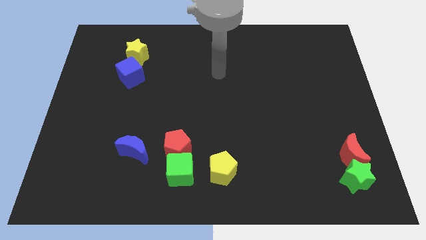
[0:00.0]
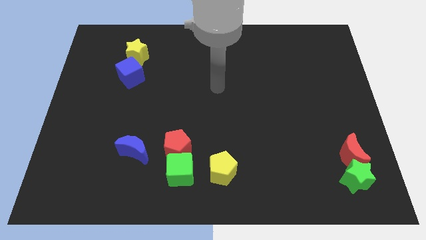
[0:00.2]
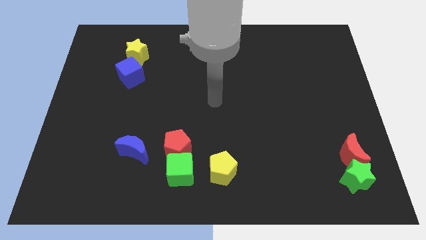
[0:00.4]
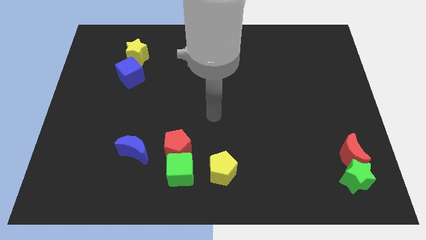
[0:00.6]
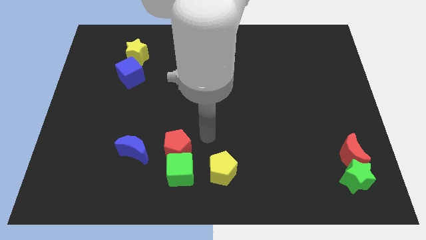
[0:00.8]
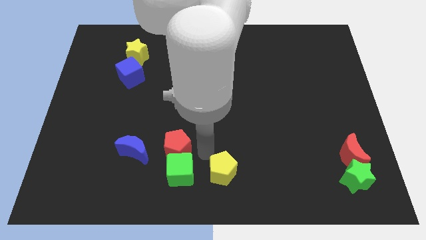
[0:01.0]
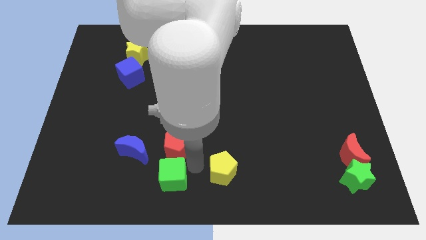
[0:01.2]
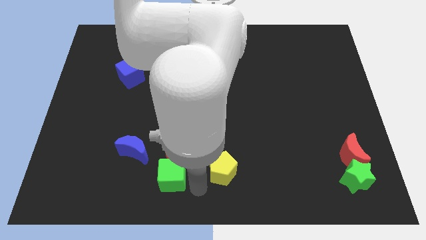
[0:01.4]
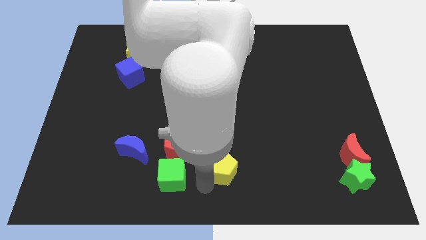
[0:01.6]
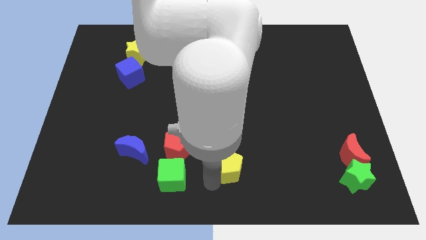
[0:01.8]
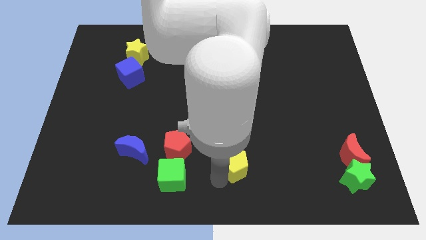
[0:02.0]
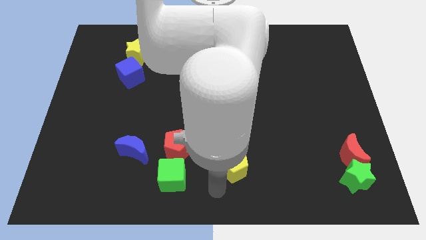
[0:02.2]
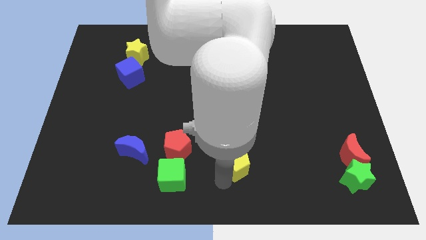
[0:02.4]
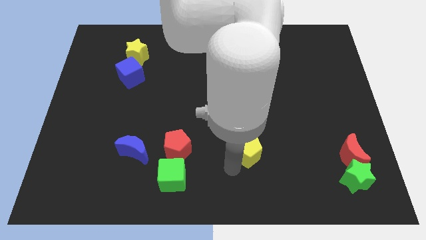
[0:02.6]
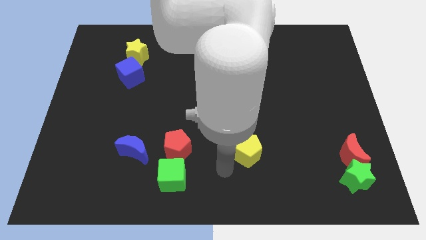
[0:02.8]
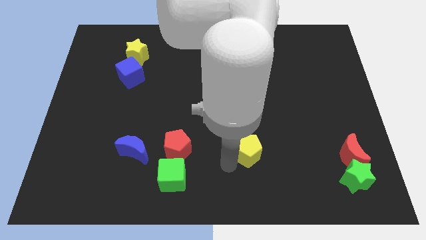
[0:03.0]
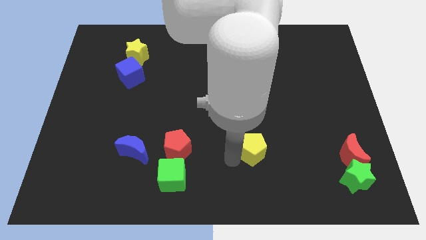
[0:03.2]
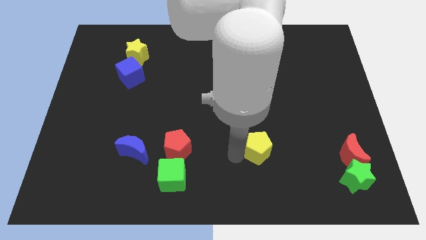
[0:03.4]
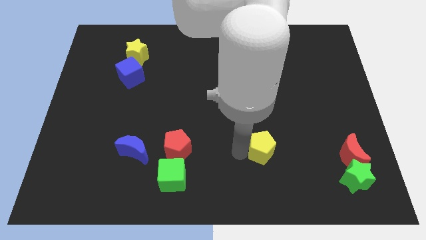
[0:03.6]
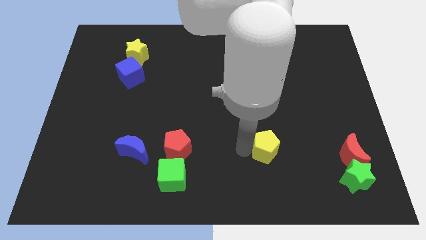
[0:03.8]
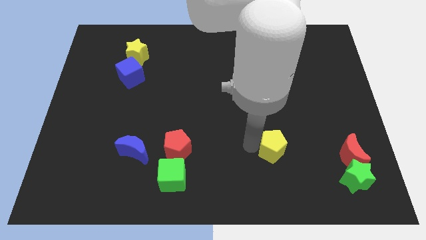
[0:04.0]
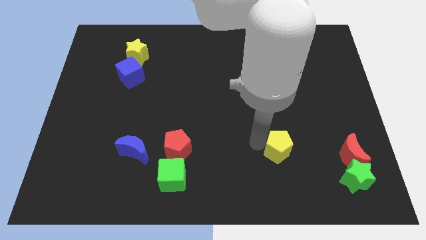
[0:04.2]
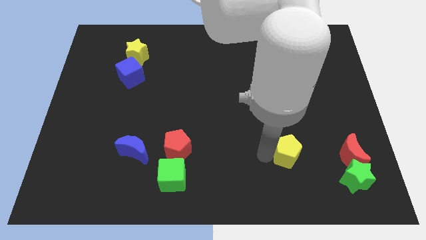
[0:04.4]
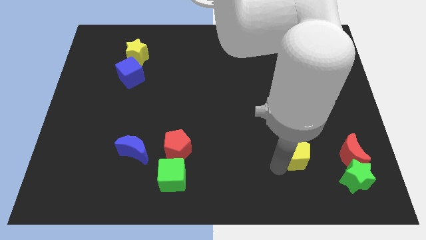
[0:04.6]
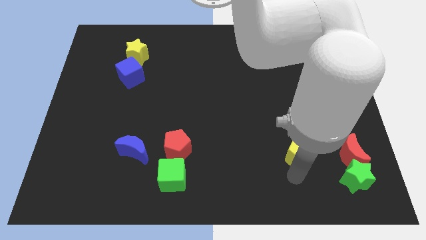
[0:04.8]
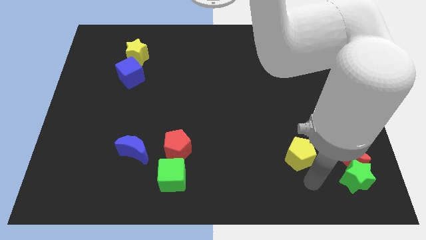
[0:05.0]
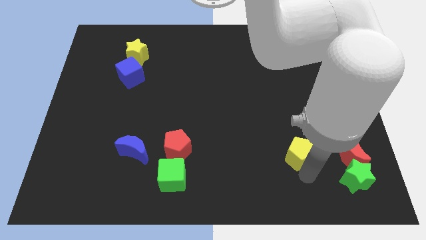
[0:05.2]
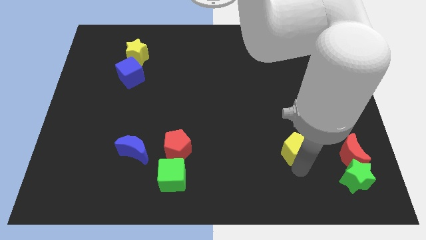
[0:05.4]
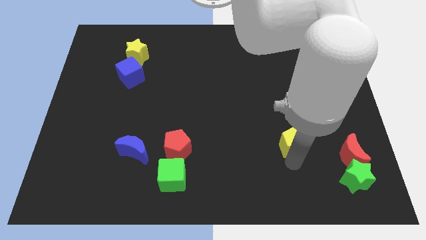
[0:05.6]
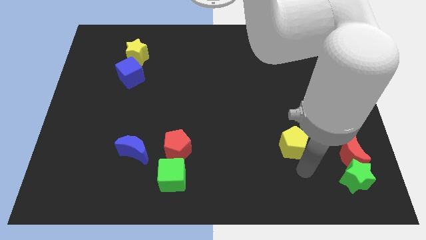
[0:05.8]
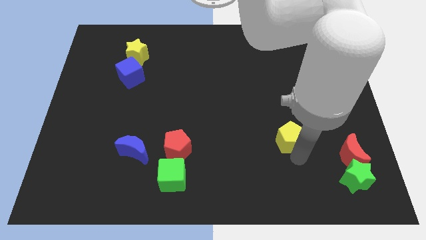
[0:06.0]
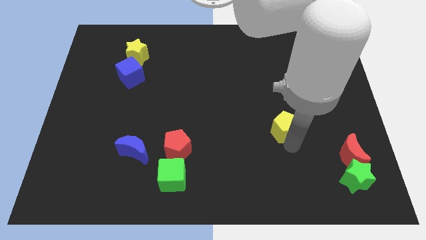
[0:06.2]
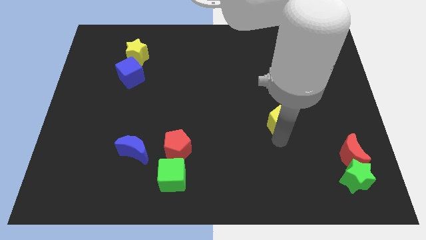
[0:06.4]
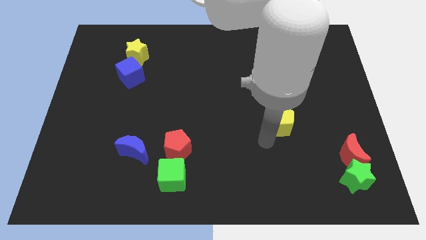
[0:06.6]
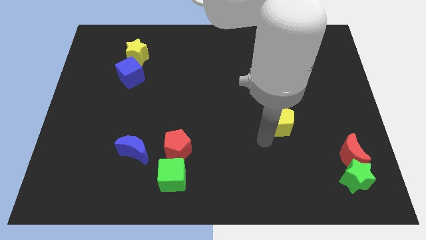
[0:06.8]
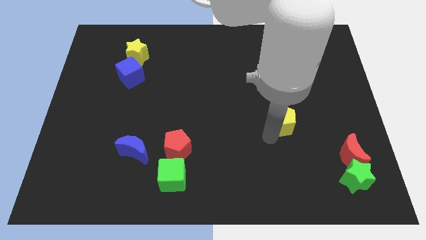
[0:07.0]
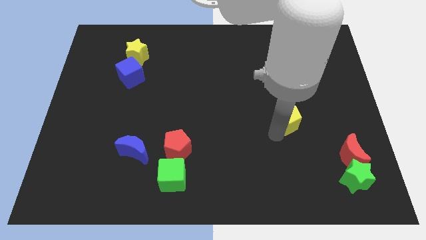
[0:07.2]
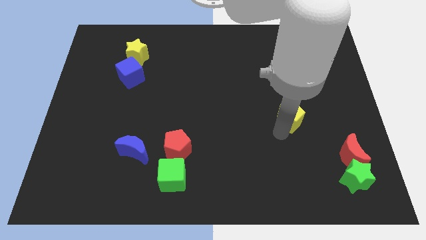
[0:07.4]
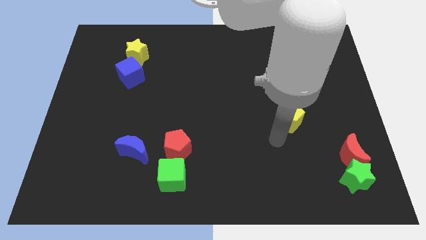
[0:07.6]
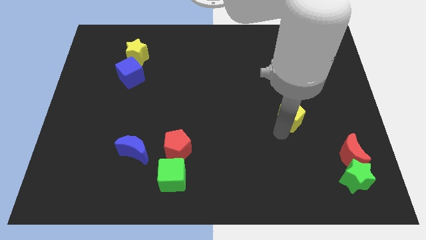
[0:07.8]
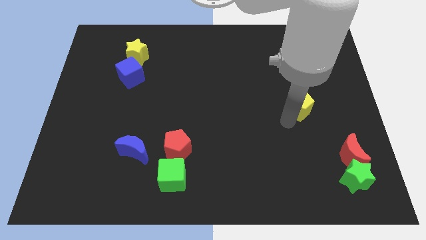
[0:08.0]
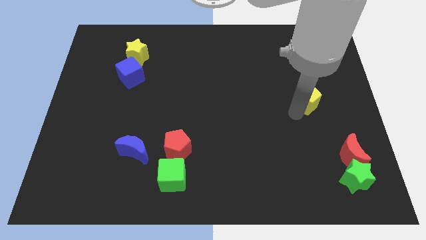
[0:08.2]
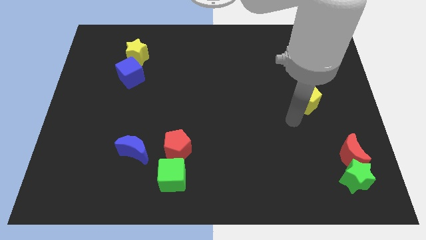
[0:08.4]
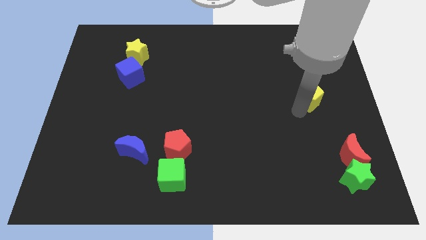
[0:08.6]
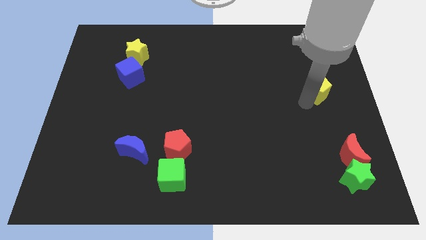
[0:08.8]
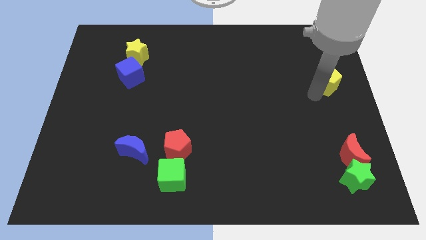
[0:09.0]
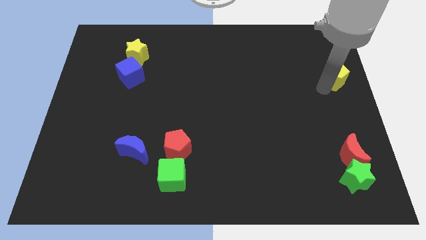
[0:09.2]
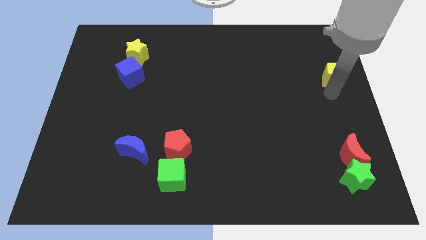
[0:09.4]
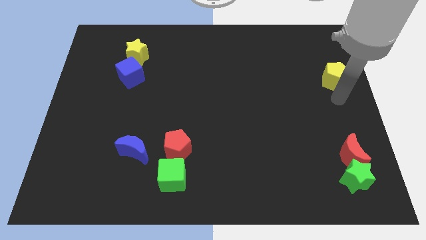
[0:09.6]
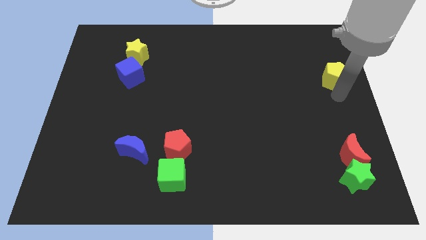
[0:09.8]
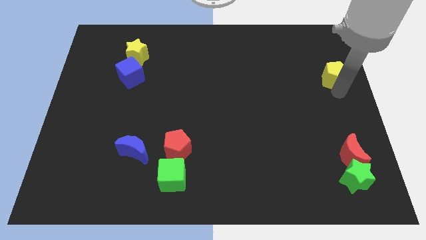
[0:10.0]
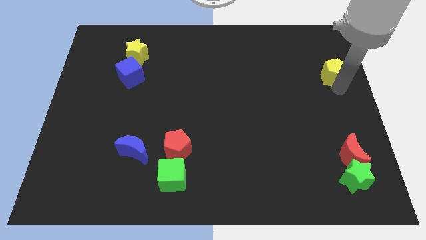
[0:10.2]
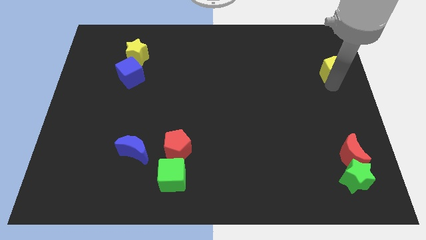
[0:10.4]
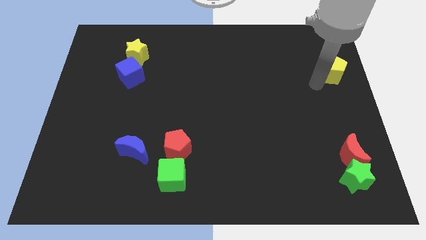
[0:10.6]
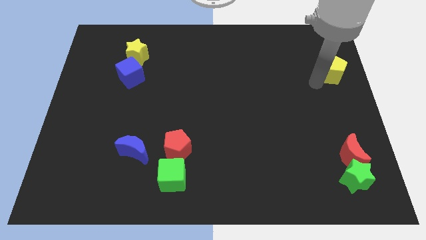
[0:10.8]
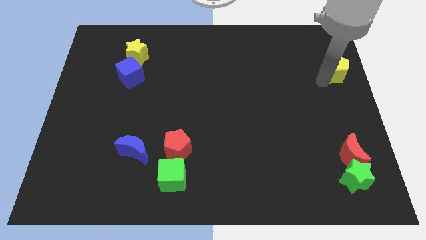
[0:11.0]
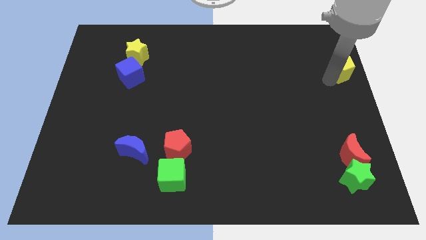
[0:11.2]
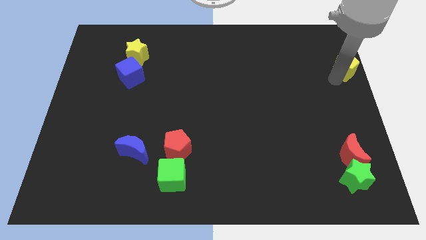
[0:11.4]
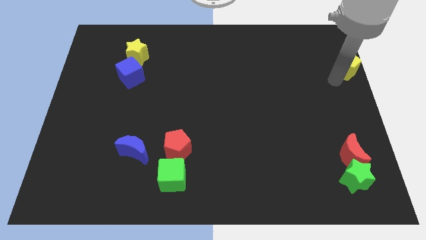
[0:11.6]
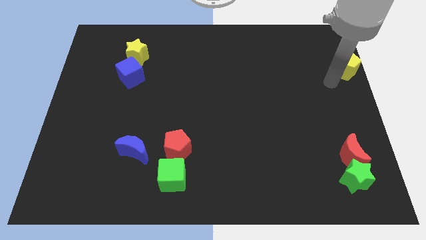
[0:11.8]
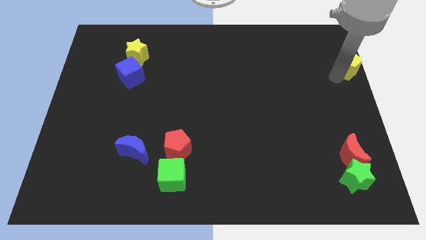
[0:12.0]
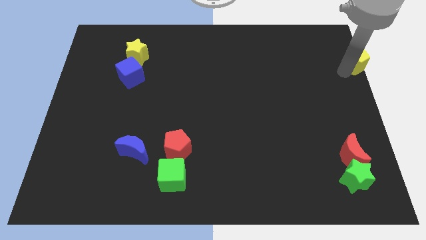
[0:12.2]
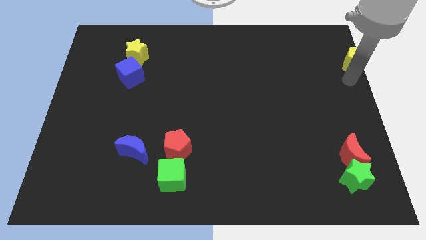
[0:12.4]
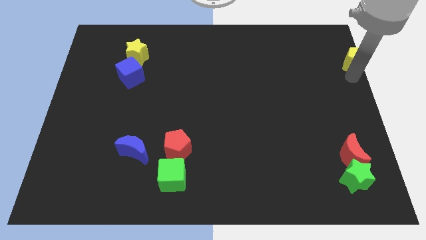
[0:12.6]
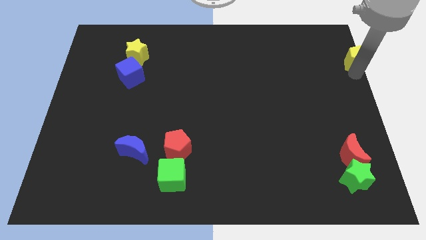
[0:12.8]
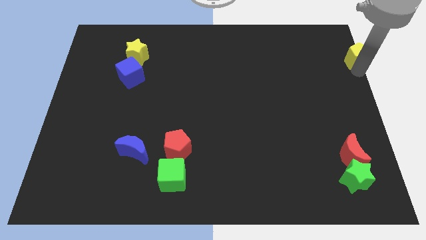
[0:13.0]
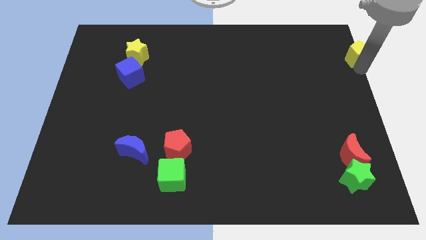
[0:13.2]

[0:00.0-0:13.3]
move the yellow pentagon to the top right
